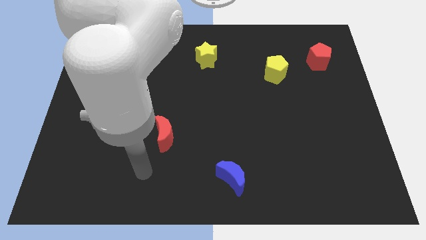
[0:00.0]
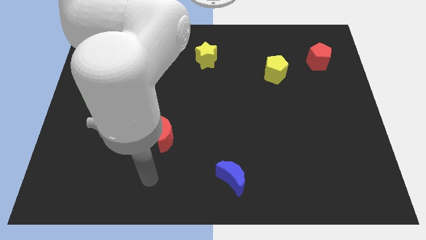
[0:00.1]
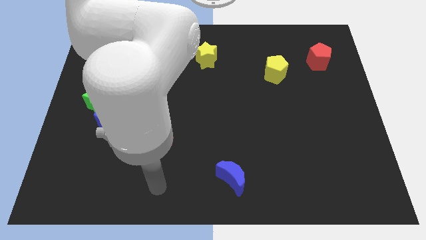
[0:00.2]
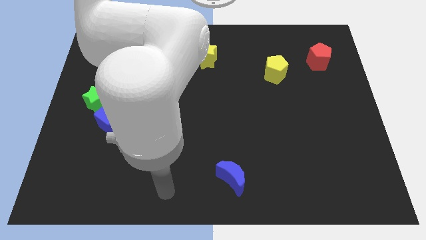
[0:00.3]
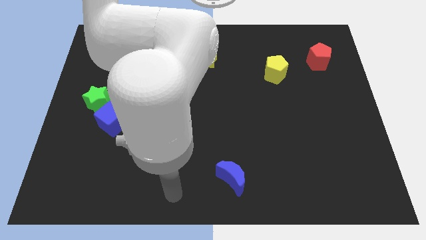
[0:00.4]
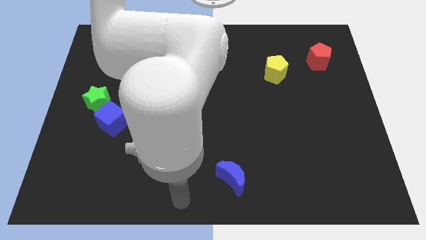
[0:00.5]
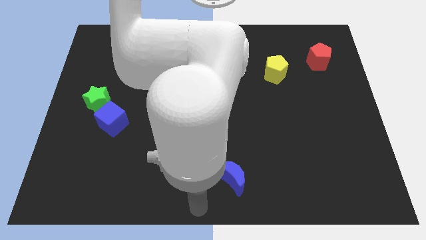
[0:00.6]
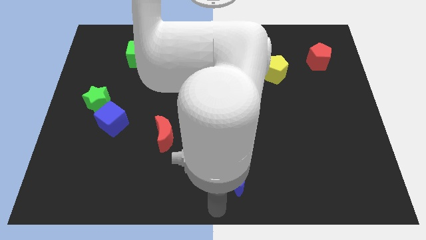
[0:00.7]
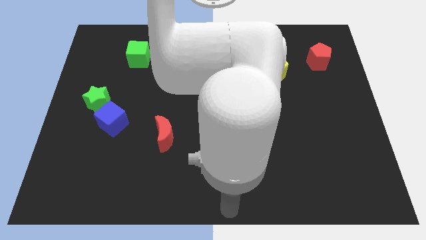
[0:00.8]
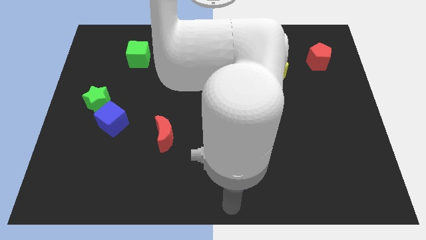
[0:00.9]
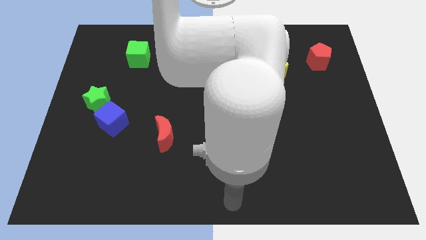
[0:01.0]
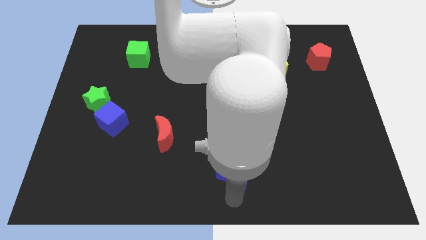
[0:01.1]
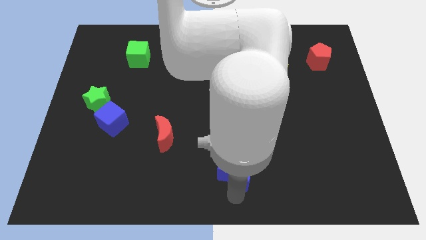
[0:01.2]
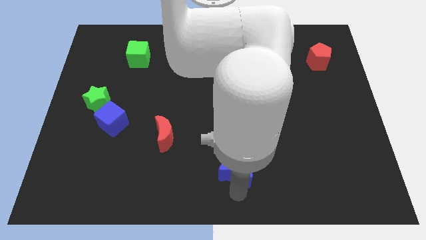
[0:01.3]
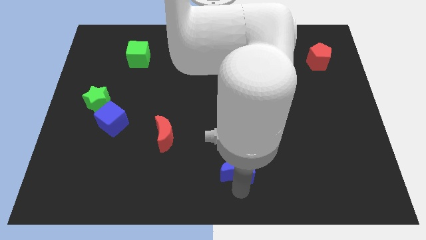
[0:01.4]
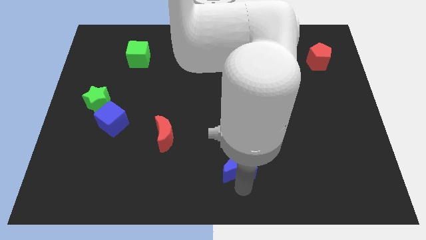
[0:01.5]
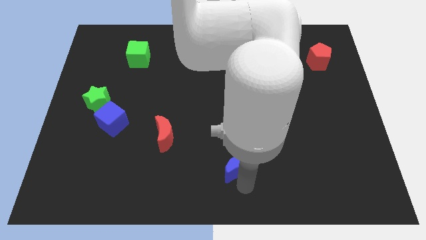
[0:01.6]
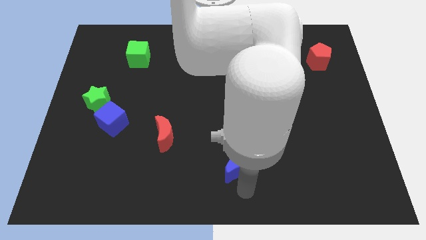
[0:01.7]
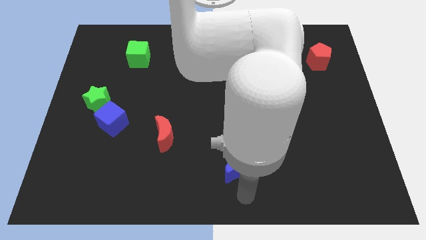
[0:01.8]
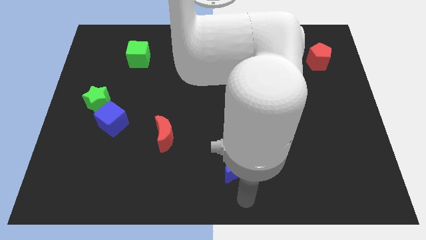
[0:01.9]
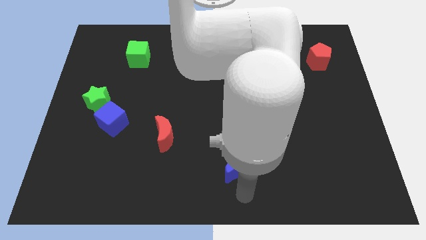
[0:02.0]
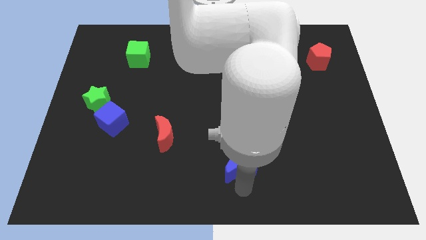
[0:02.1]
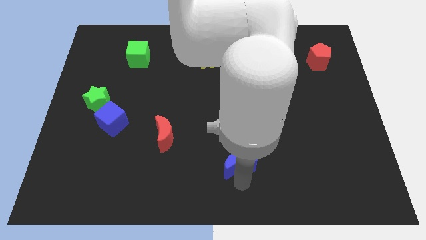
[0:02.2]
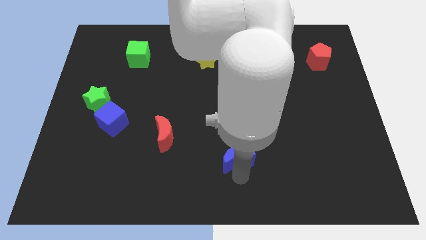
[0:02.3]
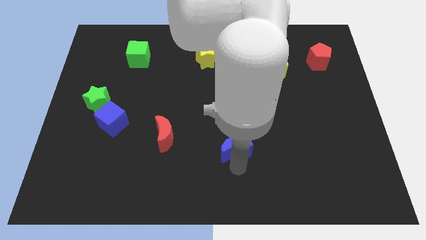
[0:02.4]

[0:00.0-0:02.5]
push the blue moon upwards somewhat

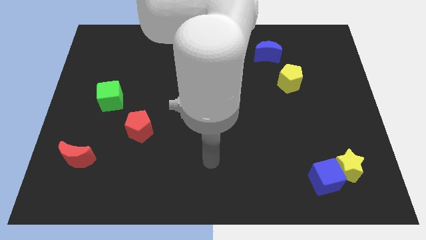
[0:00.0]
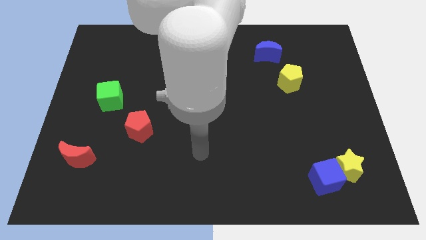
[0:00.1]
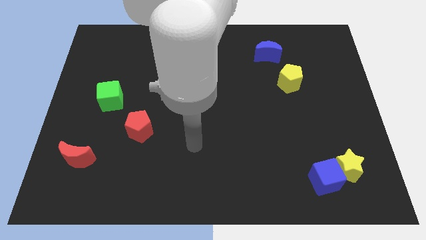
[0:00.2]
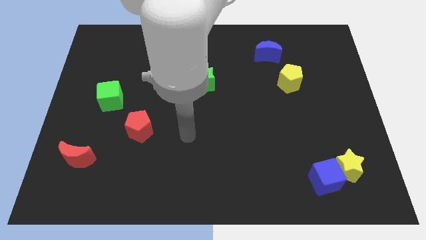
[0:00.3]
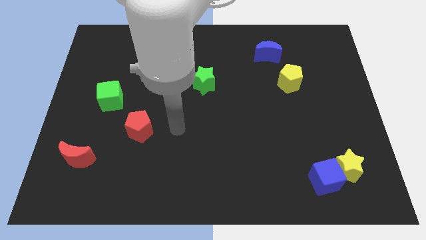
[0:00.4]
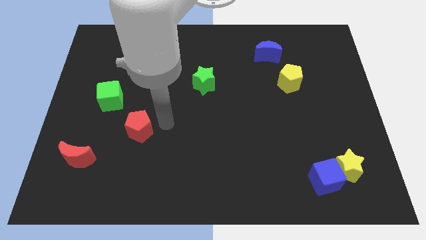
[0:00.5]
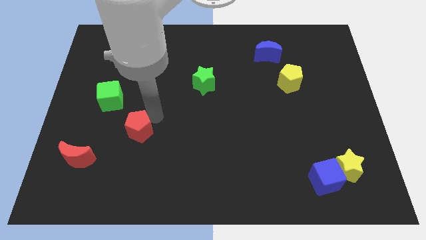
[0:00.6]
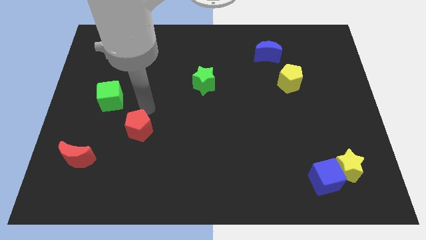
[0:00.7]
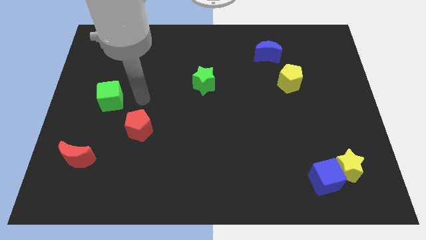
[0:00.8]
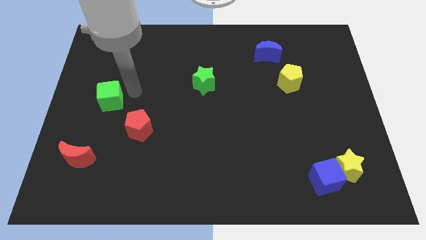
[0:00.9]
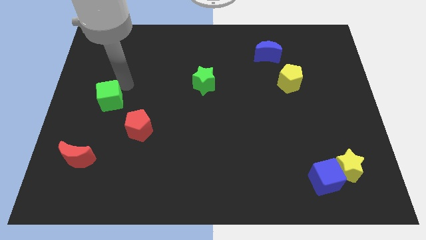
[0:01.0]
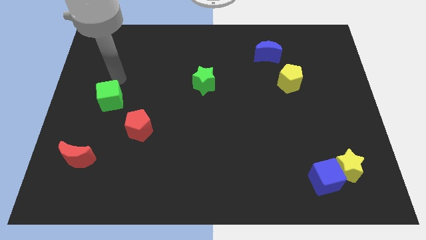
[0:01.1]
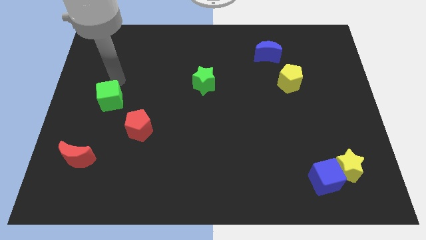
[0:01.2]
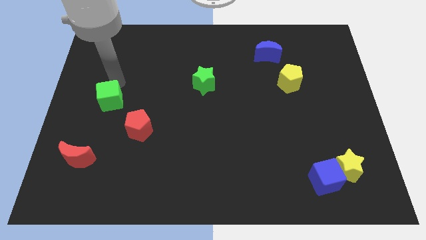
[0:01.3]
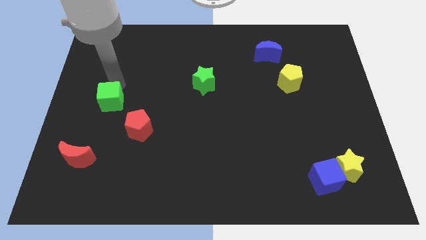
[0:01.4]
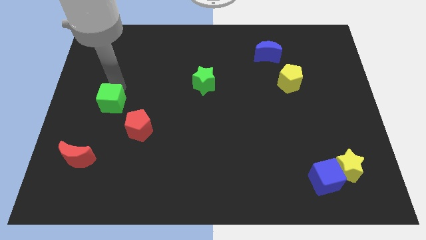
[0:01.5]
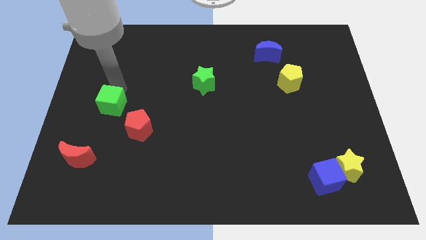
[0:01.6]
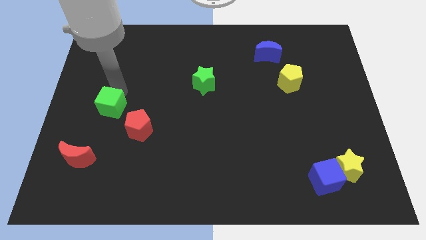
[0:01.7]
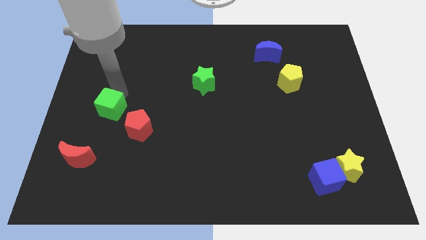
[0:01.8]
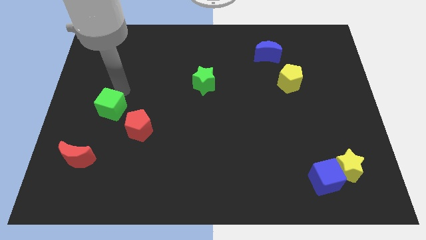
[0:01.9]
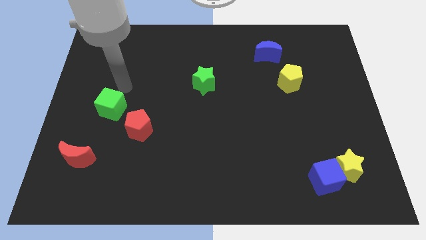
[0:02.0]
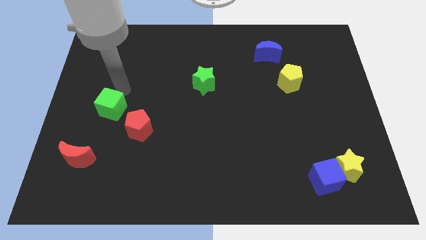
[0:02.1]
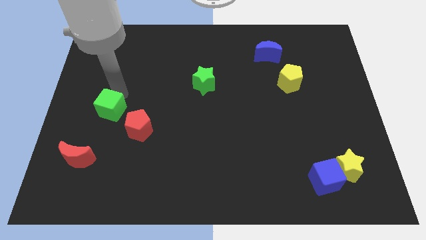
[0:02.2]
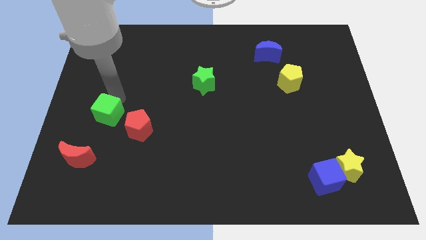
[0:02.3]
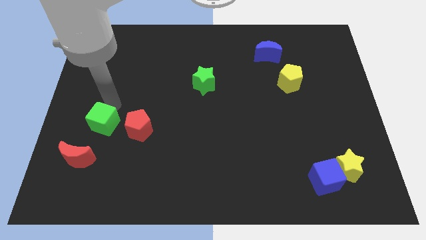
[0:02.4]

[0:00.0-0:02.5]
slightly slide the green cube downwards

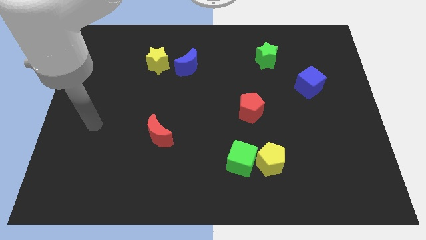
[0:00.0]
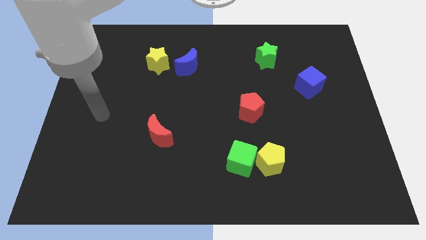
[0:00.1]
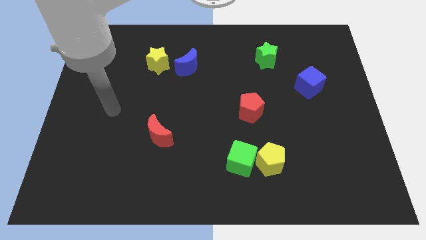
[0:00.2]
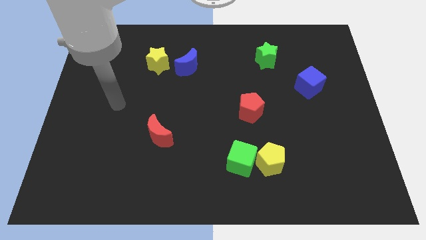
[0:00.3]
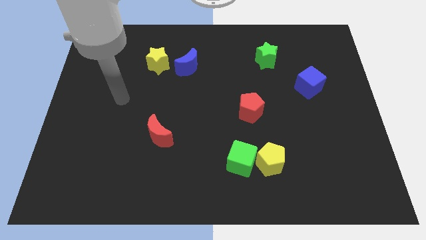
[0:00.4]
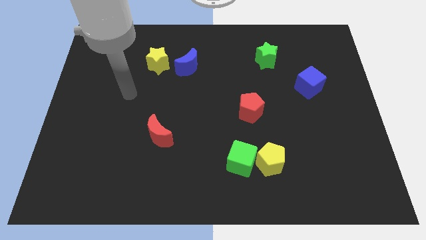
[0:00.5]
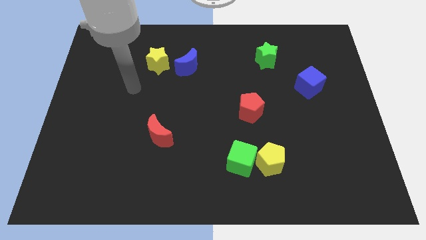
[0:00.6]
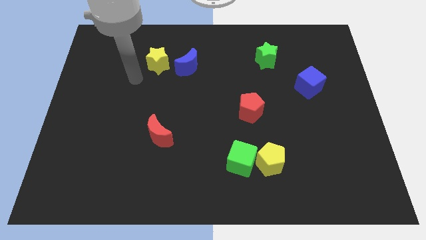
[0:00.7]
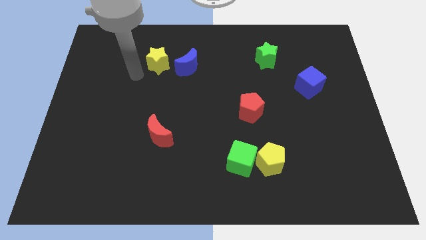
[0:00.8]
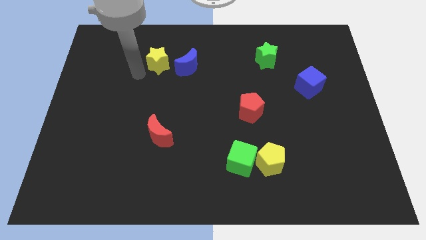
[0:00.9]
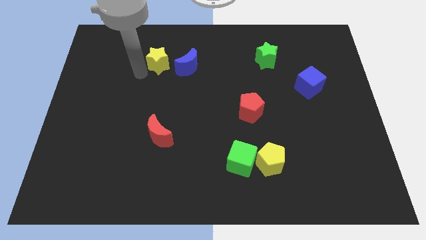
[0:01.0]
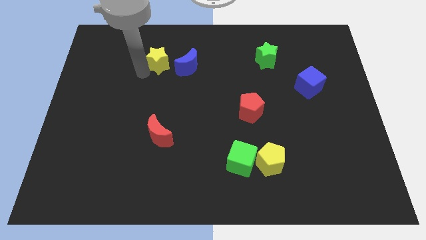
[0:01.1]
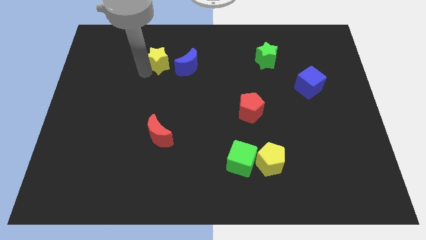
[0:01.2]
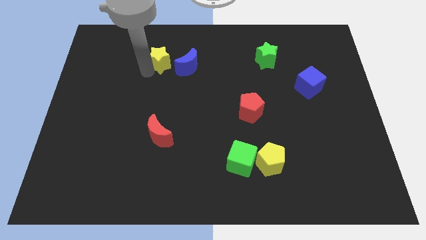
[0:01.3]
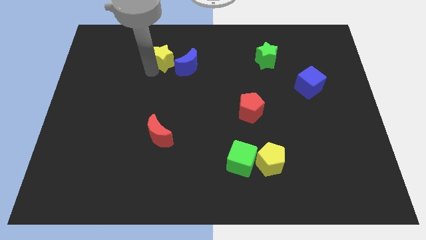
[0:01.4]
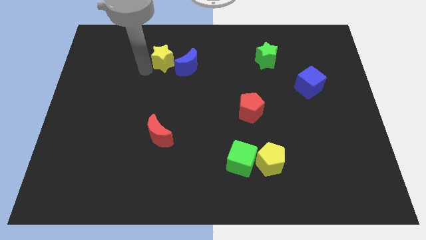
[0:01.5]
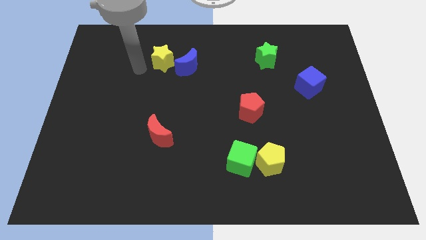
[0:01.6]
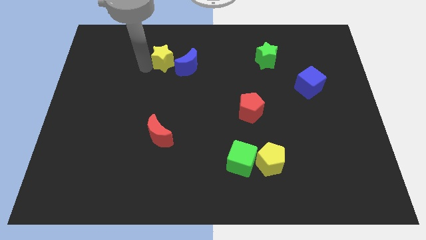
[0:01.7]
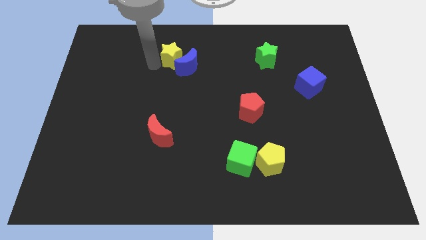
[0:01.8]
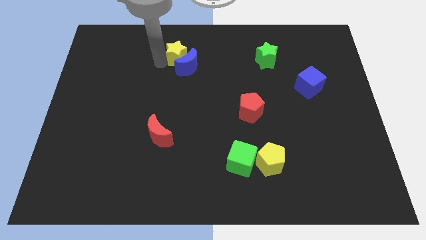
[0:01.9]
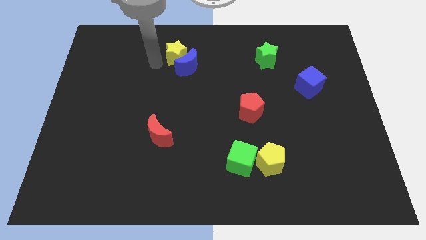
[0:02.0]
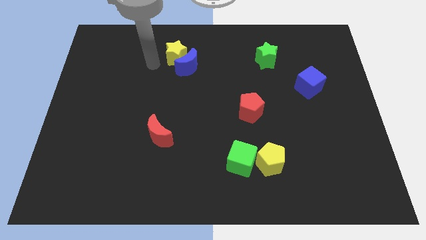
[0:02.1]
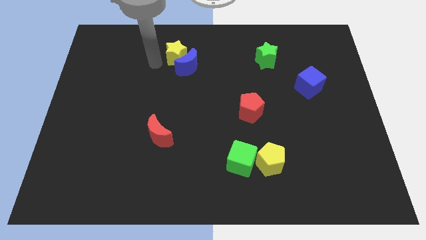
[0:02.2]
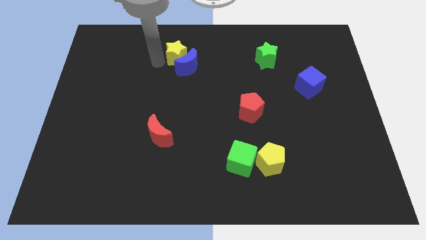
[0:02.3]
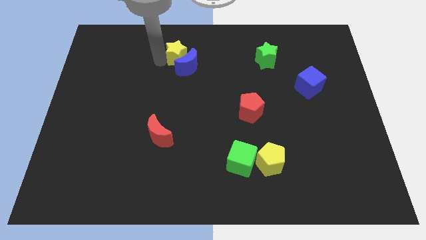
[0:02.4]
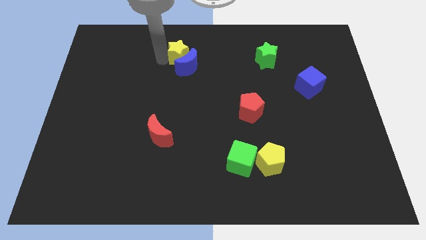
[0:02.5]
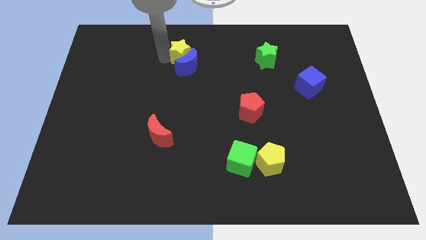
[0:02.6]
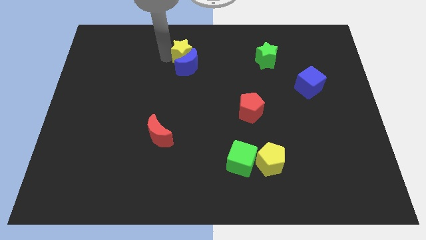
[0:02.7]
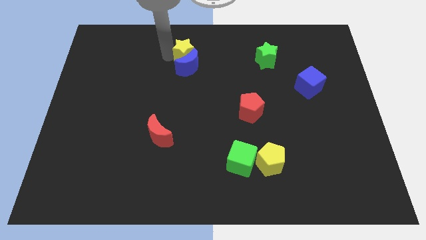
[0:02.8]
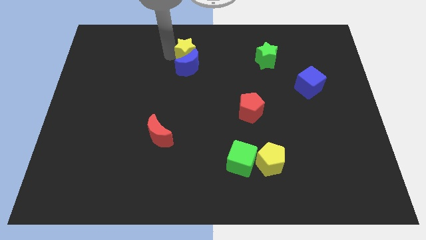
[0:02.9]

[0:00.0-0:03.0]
move the yellow star a bit right
